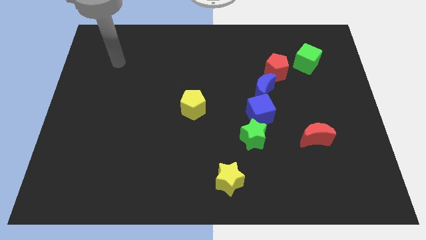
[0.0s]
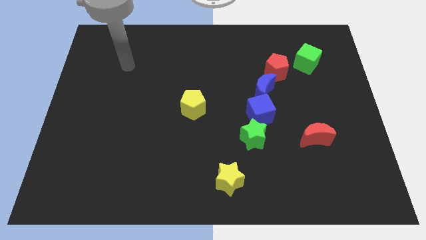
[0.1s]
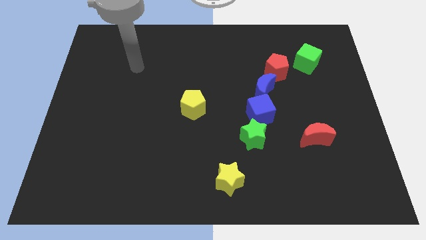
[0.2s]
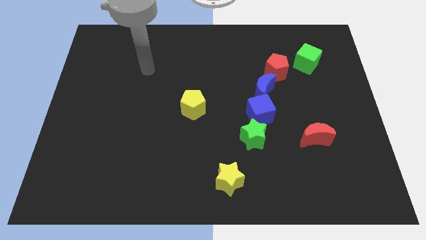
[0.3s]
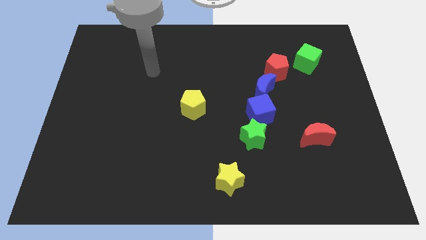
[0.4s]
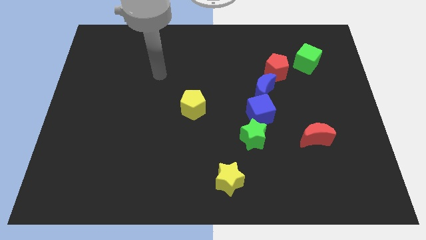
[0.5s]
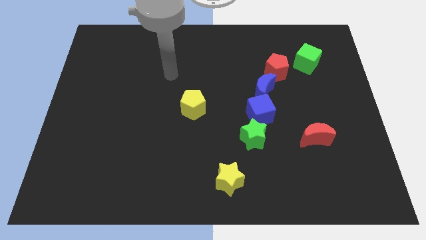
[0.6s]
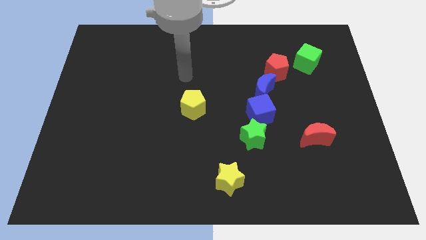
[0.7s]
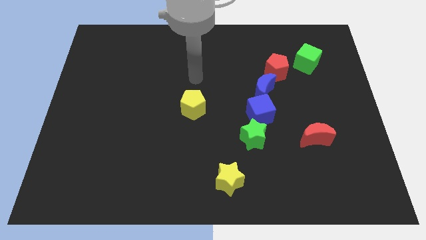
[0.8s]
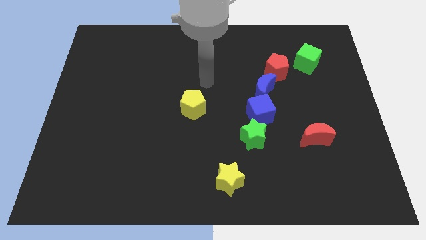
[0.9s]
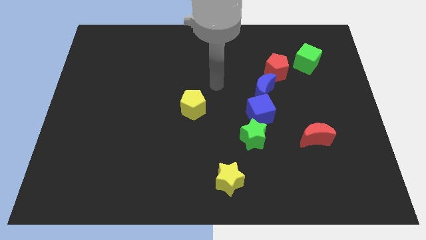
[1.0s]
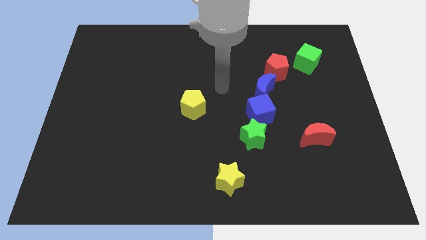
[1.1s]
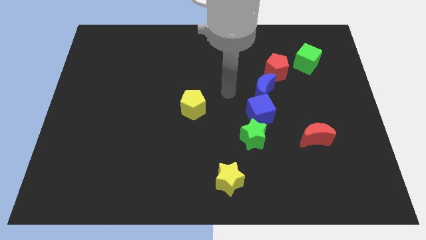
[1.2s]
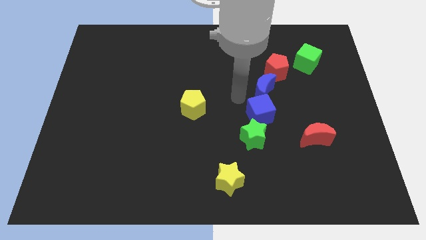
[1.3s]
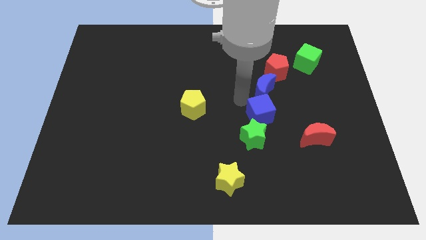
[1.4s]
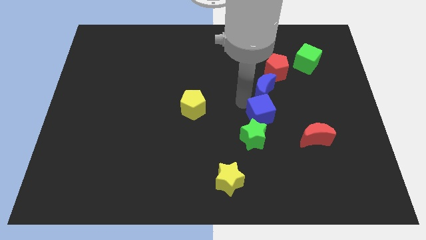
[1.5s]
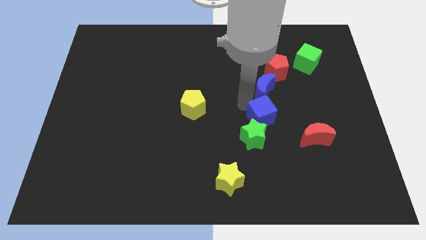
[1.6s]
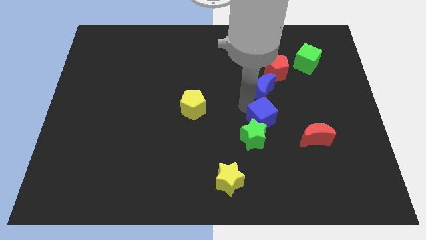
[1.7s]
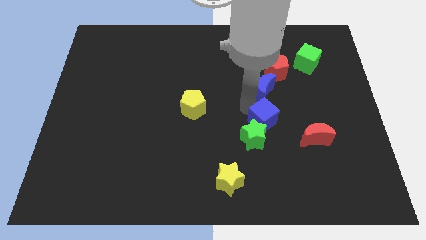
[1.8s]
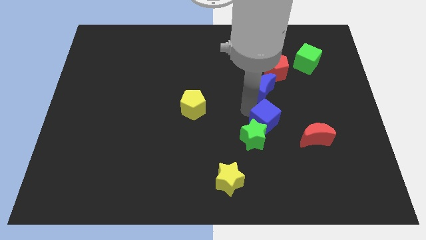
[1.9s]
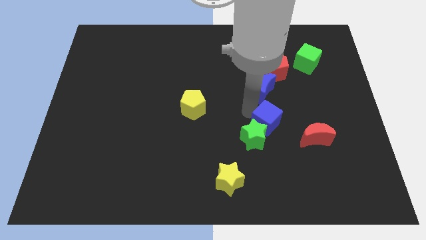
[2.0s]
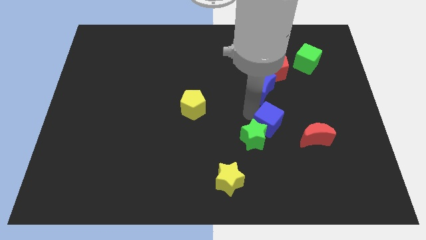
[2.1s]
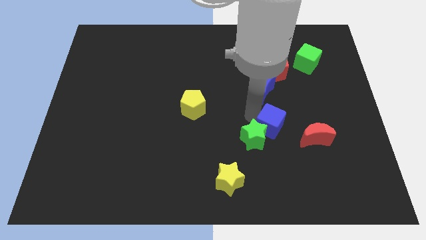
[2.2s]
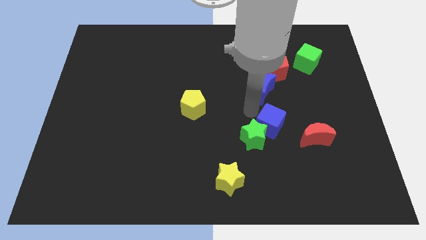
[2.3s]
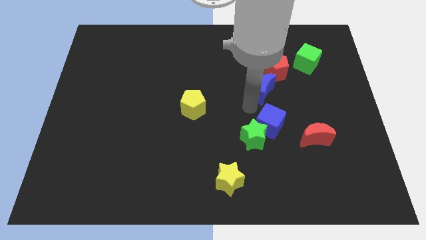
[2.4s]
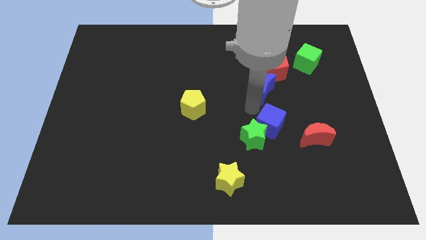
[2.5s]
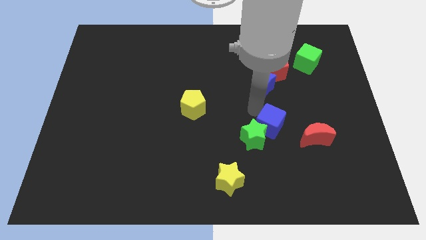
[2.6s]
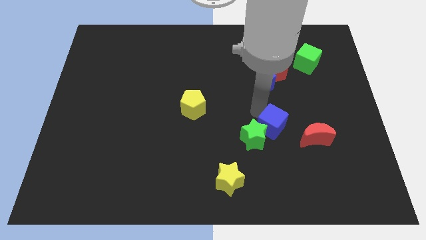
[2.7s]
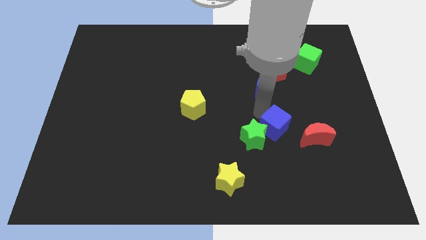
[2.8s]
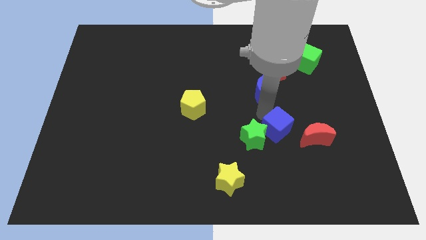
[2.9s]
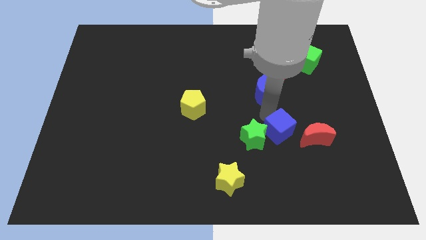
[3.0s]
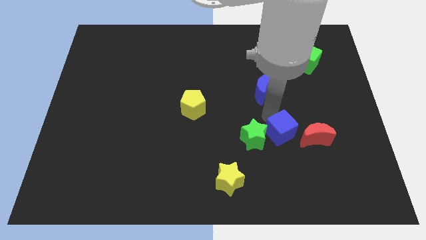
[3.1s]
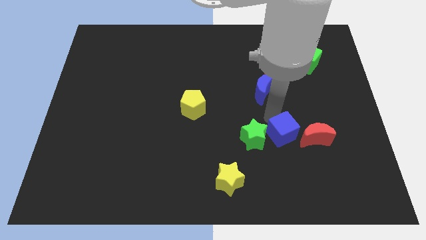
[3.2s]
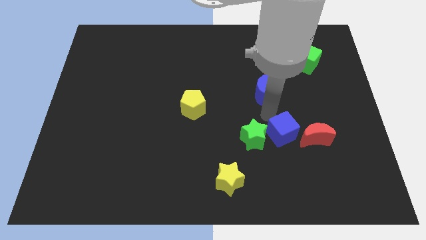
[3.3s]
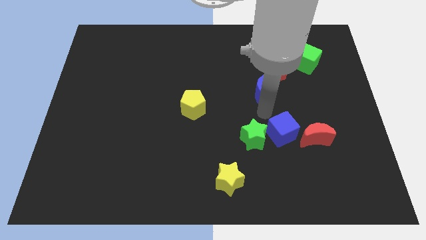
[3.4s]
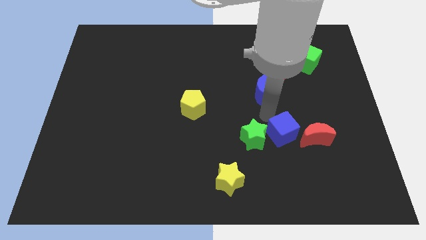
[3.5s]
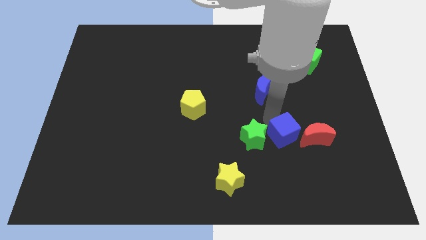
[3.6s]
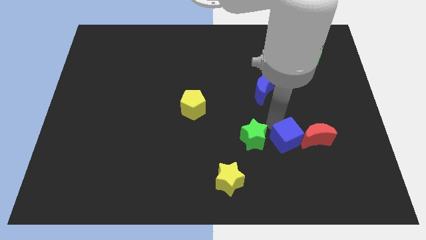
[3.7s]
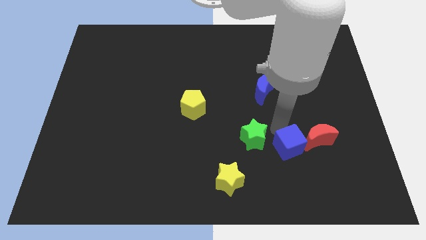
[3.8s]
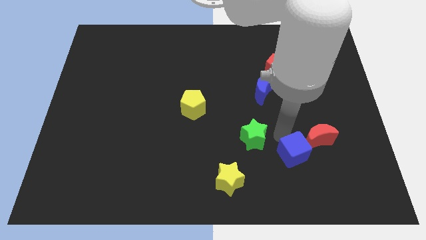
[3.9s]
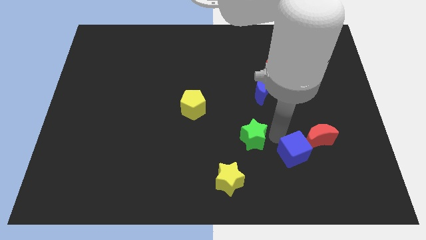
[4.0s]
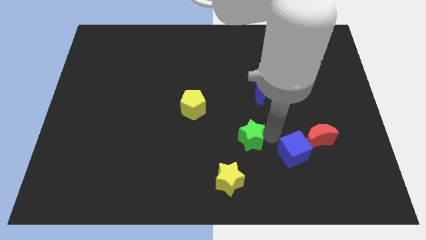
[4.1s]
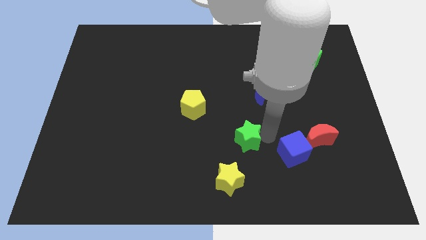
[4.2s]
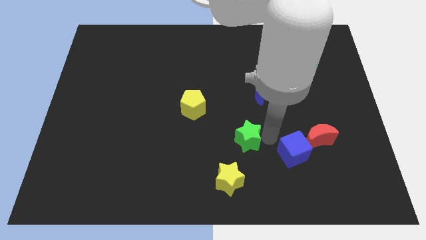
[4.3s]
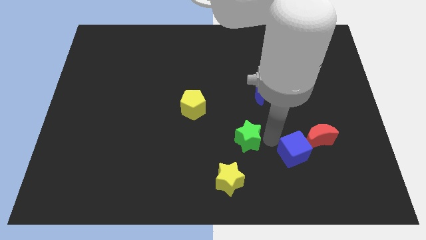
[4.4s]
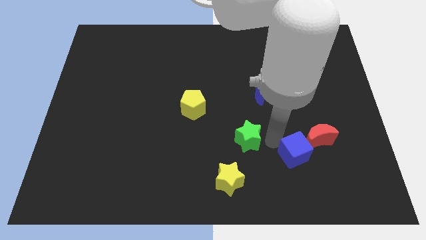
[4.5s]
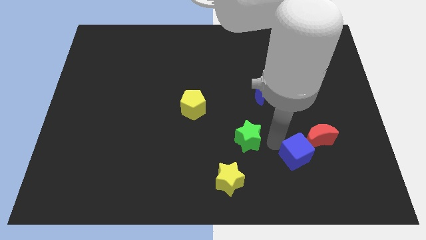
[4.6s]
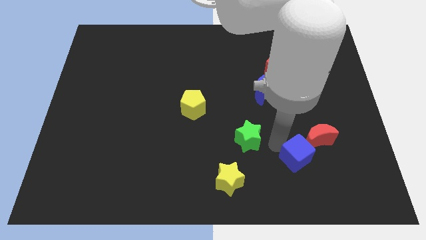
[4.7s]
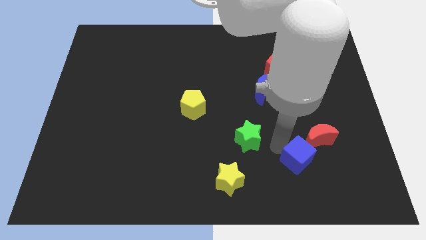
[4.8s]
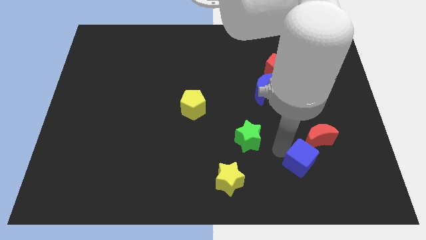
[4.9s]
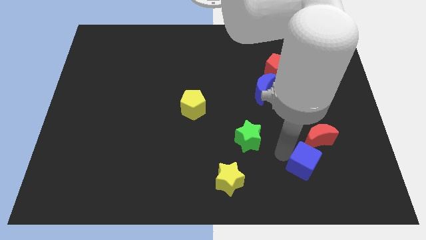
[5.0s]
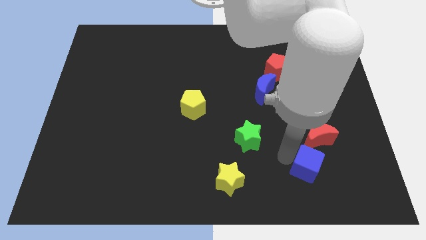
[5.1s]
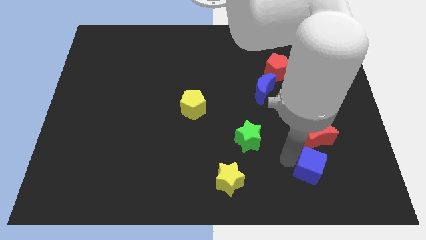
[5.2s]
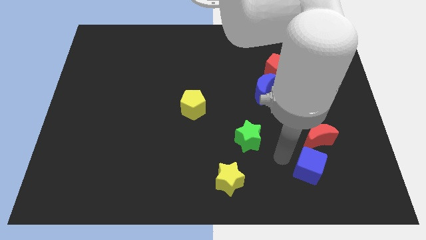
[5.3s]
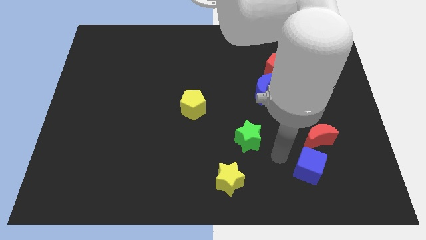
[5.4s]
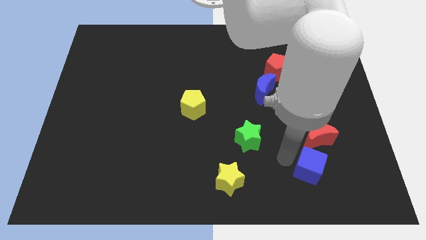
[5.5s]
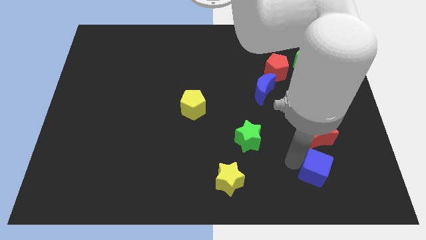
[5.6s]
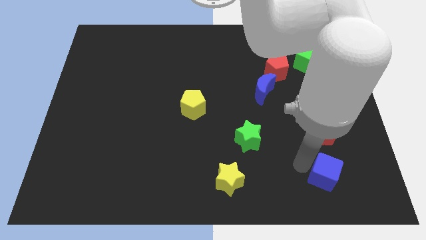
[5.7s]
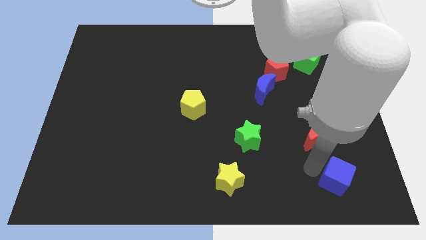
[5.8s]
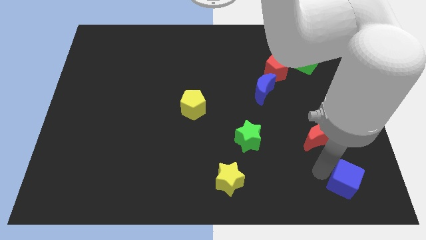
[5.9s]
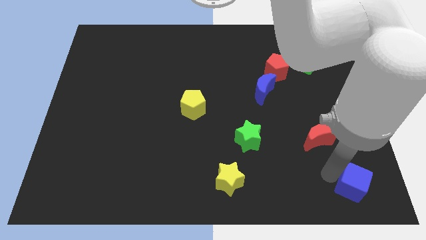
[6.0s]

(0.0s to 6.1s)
slide the blue cube to the lower right corner
